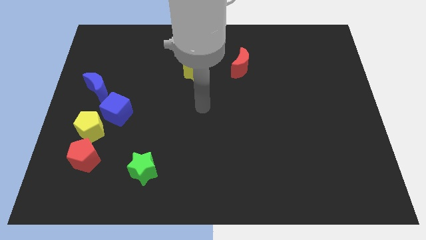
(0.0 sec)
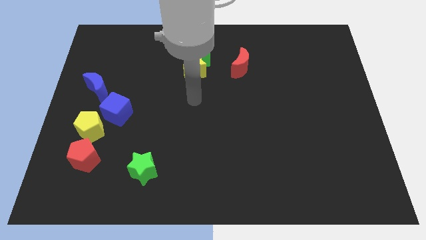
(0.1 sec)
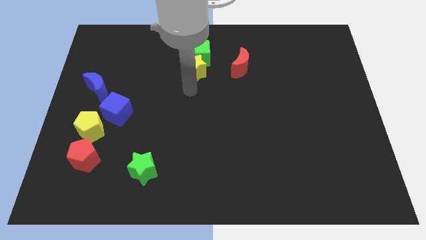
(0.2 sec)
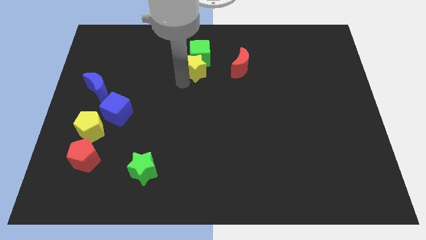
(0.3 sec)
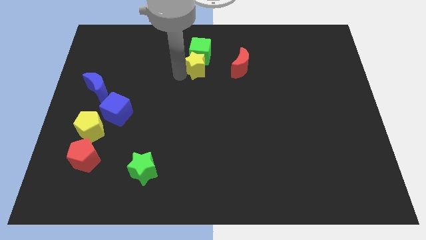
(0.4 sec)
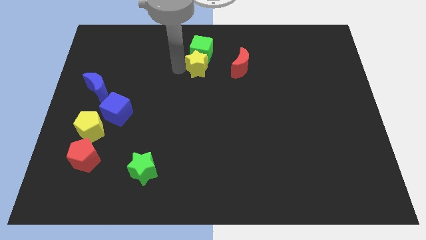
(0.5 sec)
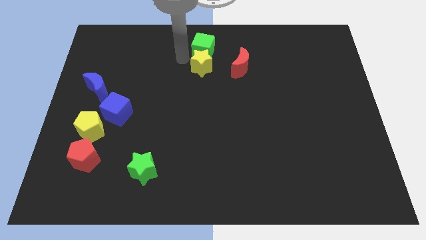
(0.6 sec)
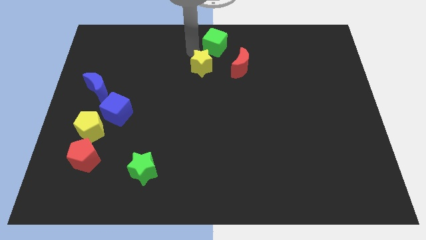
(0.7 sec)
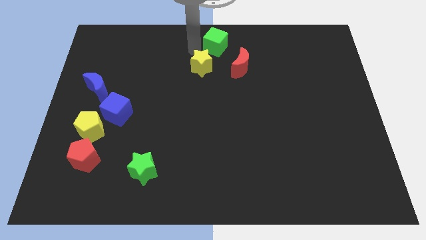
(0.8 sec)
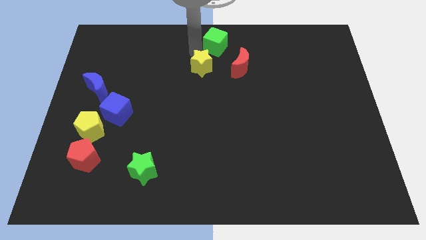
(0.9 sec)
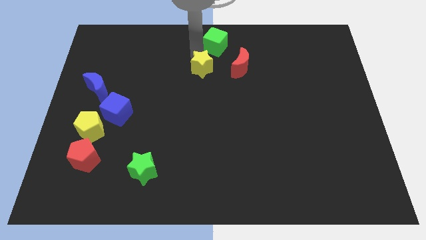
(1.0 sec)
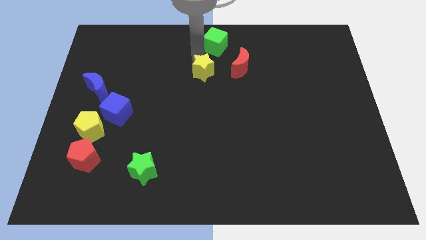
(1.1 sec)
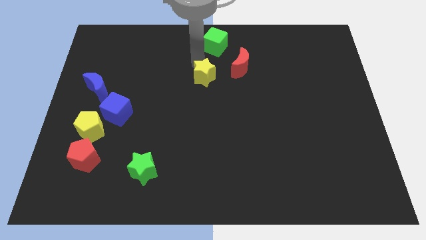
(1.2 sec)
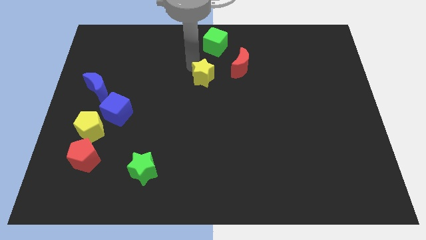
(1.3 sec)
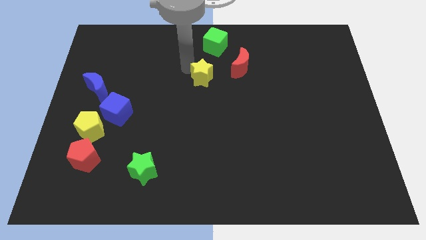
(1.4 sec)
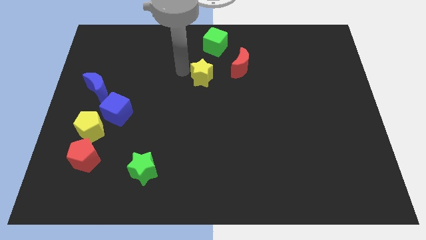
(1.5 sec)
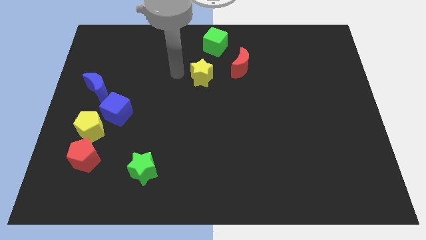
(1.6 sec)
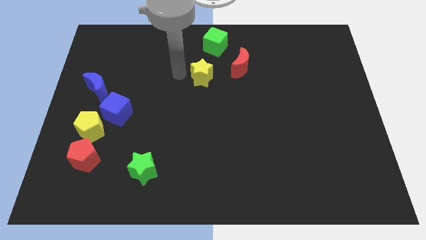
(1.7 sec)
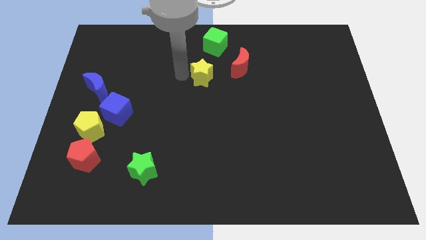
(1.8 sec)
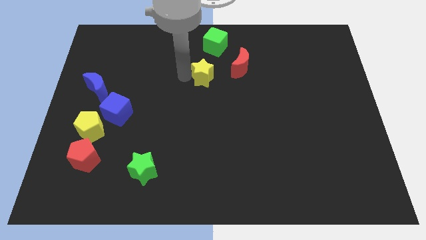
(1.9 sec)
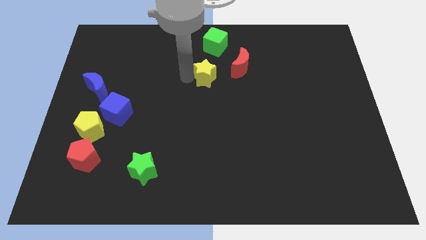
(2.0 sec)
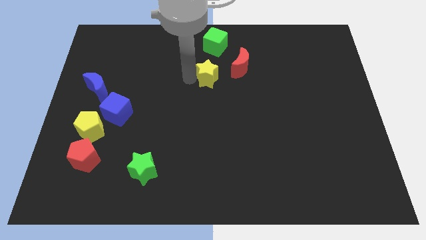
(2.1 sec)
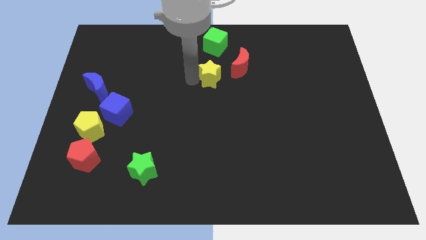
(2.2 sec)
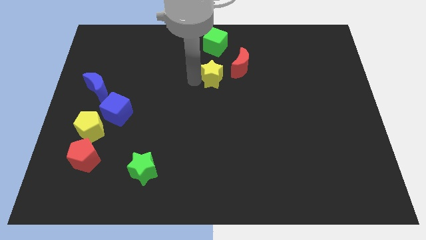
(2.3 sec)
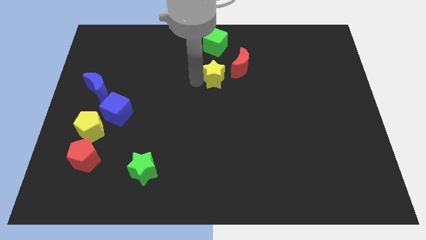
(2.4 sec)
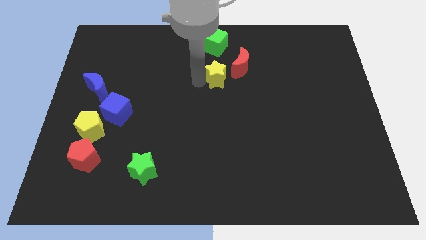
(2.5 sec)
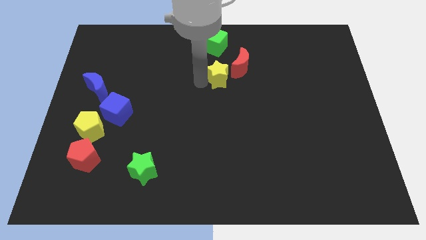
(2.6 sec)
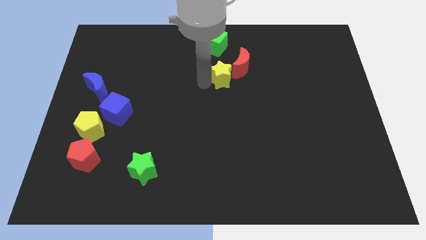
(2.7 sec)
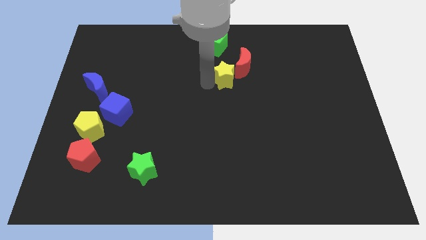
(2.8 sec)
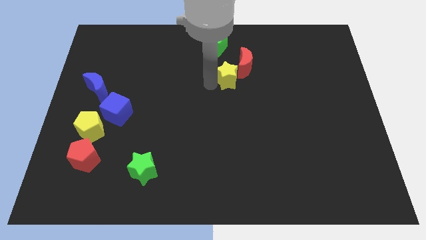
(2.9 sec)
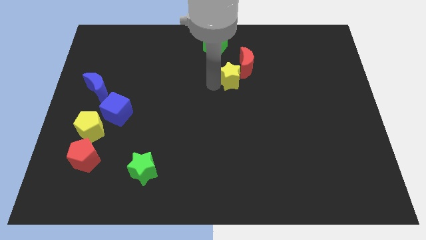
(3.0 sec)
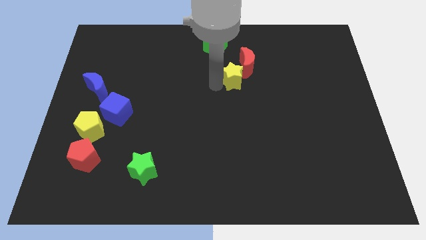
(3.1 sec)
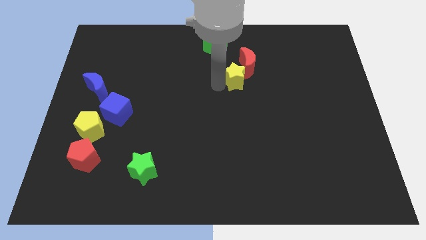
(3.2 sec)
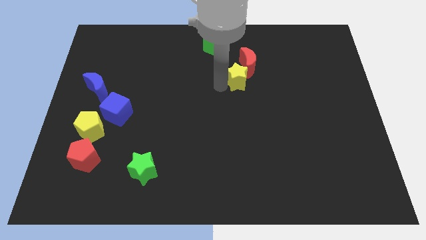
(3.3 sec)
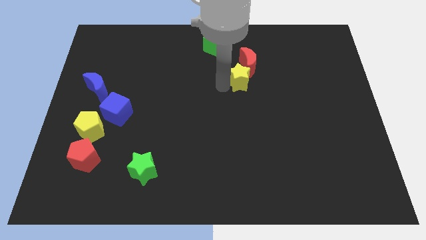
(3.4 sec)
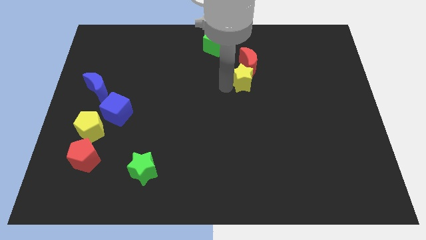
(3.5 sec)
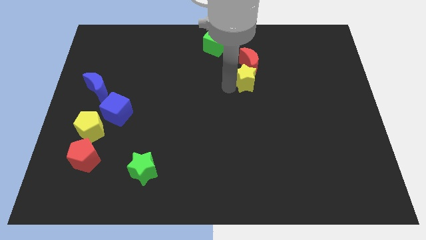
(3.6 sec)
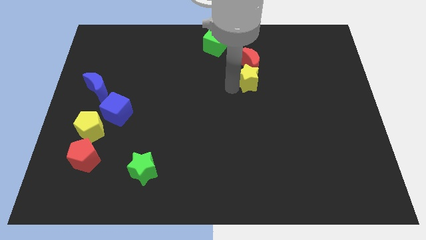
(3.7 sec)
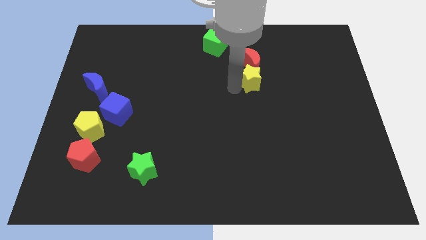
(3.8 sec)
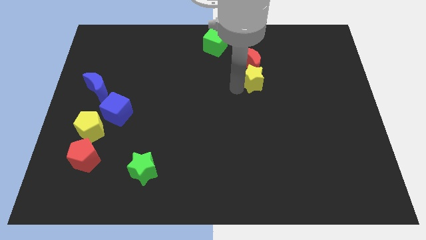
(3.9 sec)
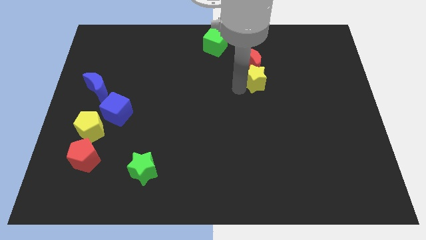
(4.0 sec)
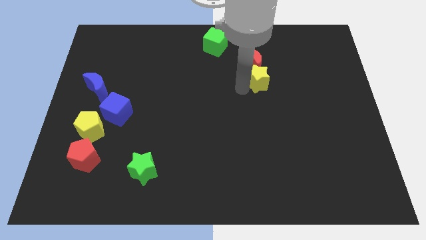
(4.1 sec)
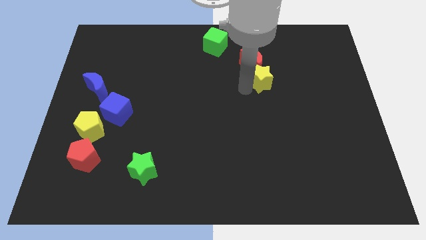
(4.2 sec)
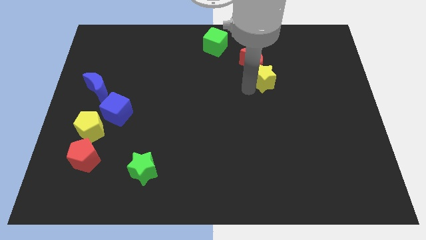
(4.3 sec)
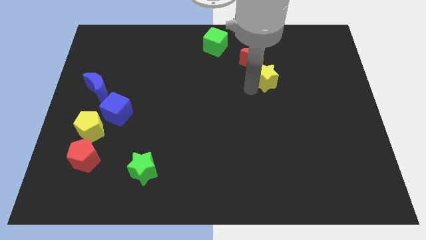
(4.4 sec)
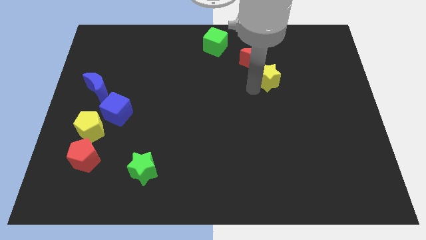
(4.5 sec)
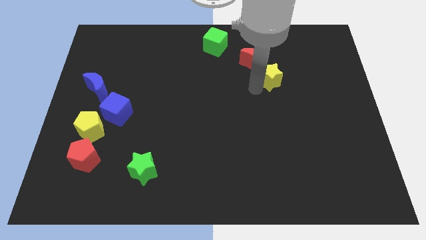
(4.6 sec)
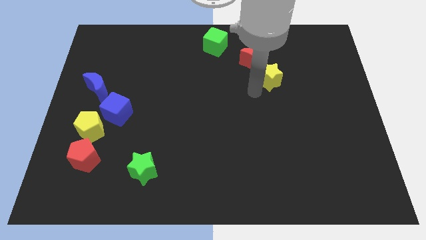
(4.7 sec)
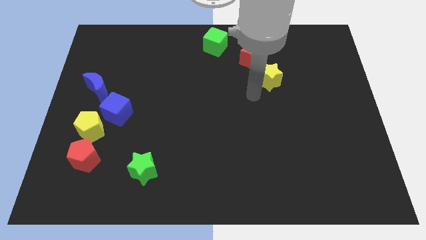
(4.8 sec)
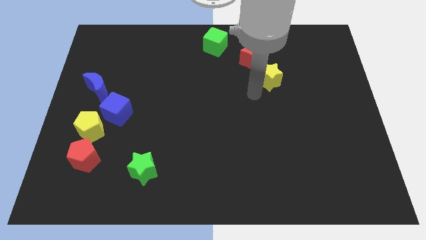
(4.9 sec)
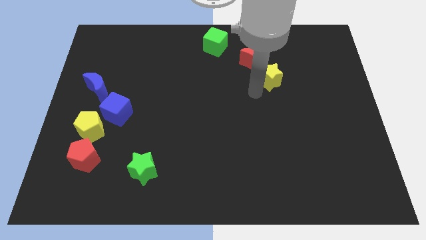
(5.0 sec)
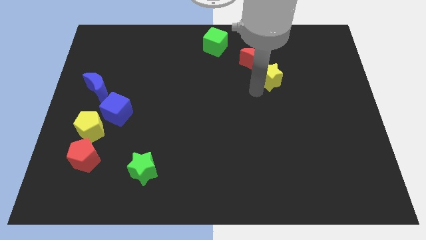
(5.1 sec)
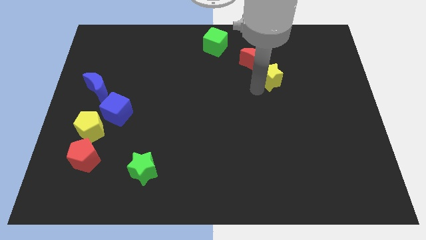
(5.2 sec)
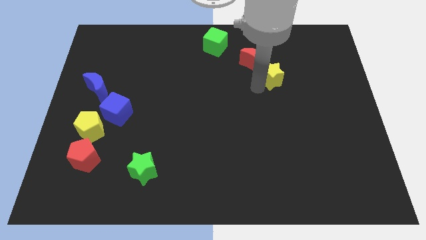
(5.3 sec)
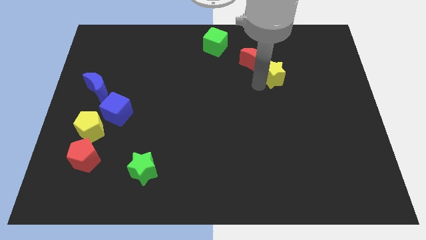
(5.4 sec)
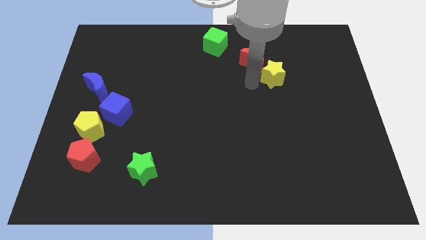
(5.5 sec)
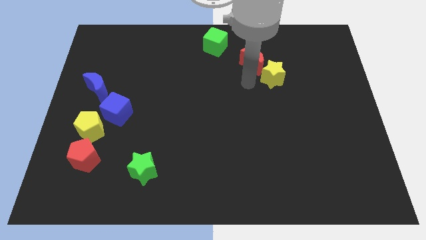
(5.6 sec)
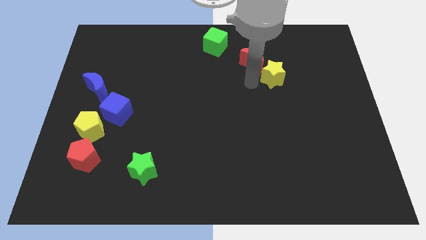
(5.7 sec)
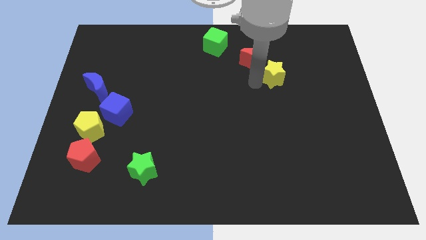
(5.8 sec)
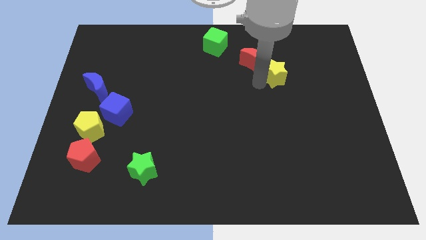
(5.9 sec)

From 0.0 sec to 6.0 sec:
push the yellow star to the right

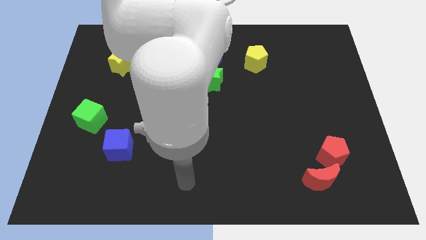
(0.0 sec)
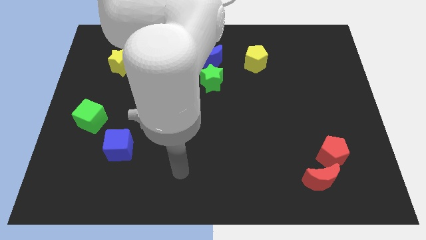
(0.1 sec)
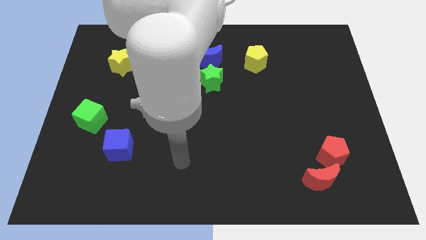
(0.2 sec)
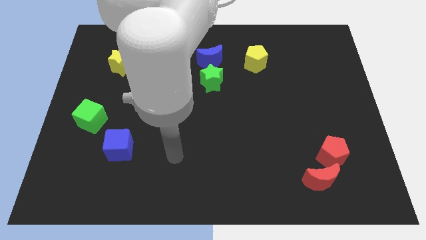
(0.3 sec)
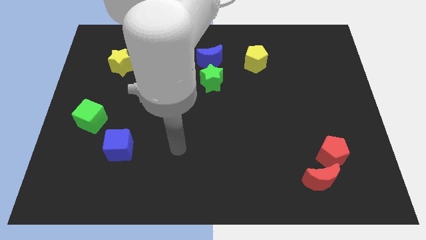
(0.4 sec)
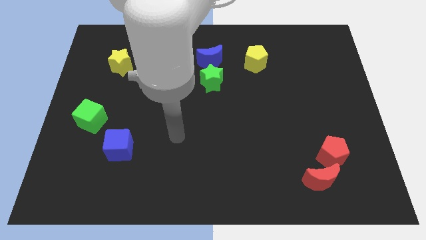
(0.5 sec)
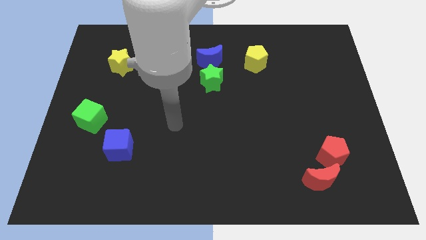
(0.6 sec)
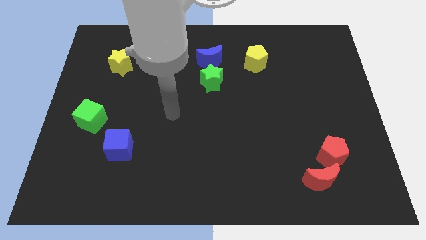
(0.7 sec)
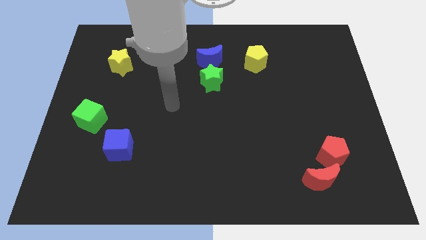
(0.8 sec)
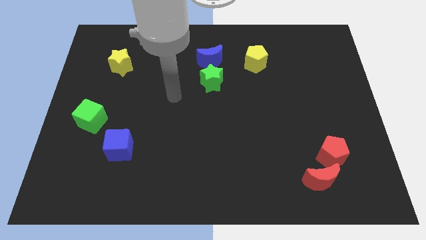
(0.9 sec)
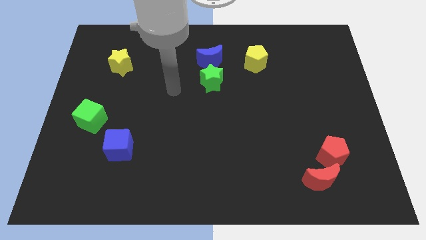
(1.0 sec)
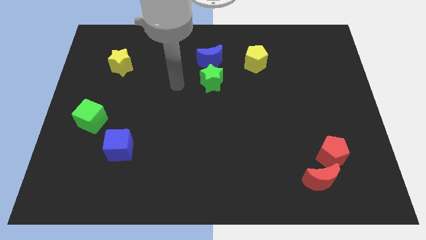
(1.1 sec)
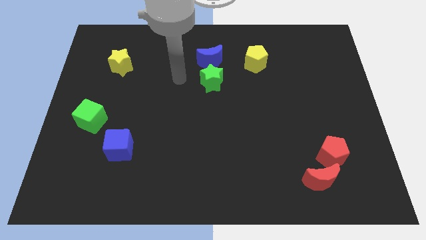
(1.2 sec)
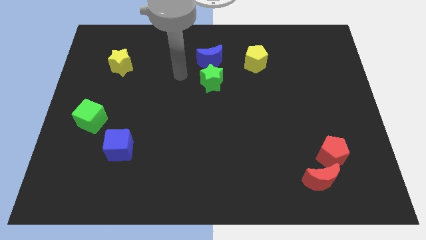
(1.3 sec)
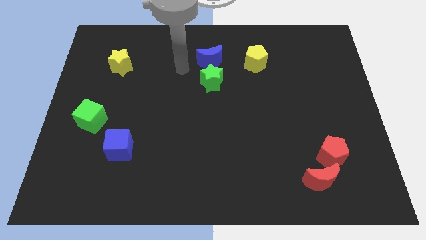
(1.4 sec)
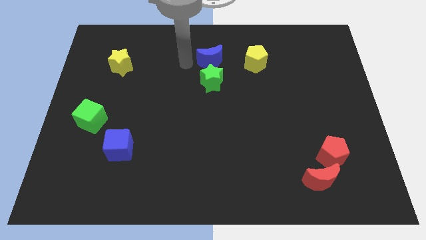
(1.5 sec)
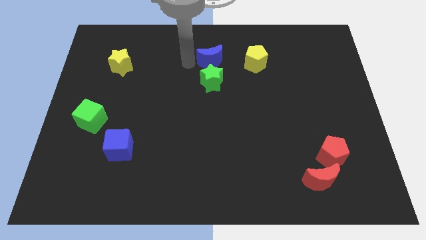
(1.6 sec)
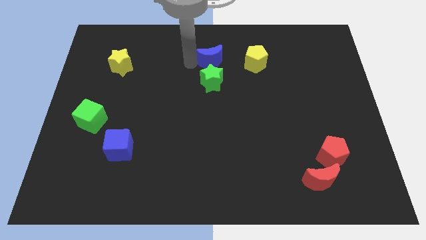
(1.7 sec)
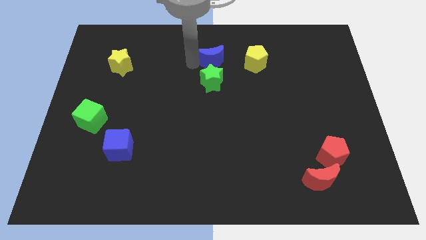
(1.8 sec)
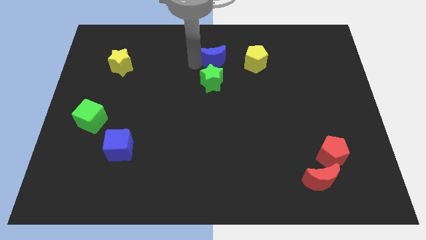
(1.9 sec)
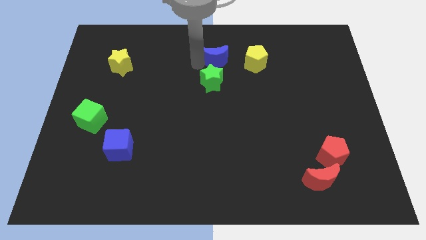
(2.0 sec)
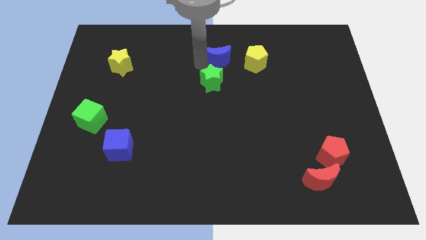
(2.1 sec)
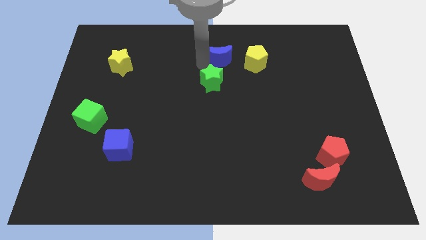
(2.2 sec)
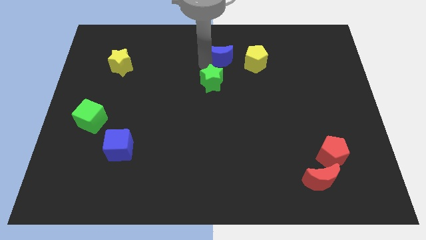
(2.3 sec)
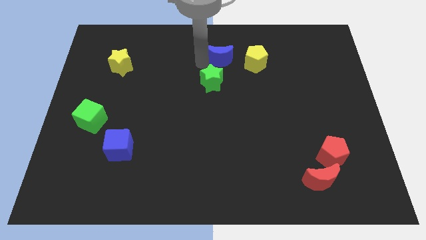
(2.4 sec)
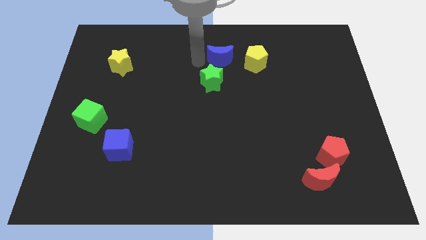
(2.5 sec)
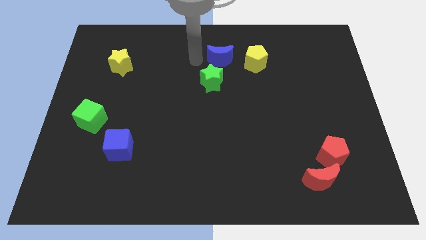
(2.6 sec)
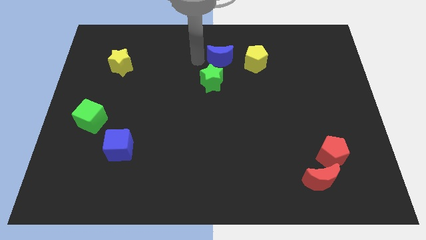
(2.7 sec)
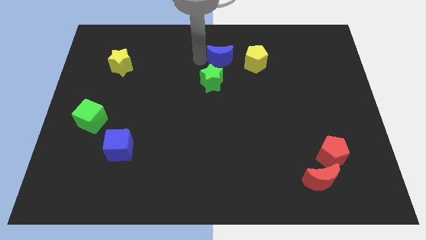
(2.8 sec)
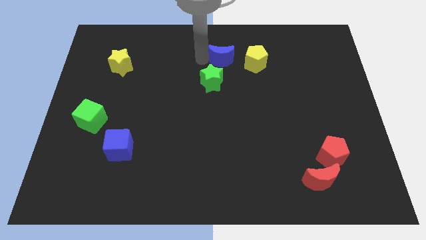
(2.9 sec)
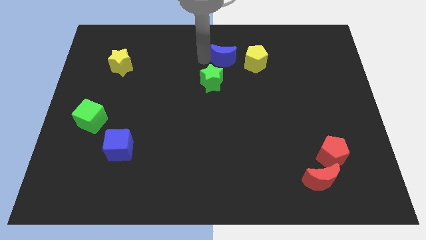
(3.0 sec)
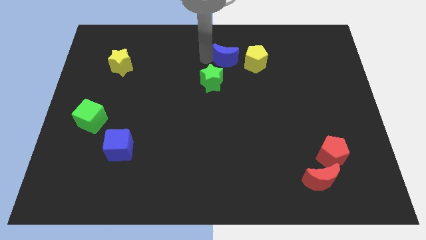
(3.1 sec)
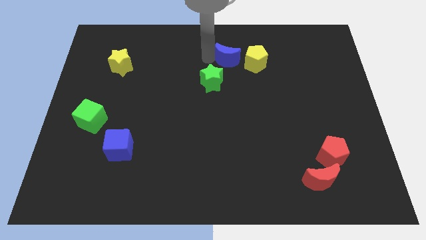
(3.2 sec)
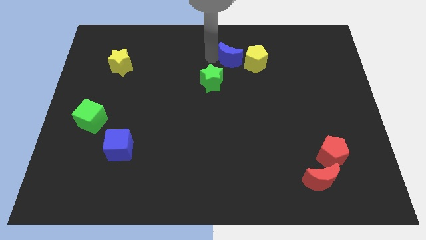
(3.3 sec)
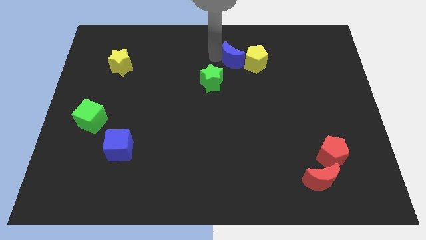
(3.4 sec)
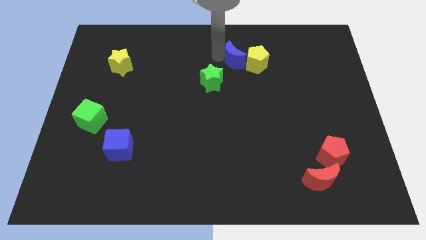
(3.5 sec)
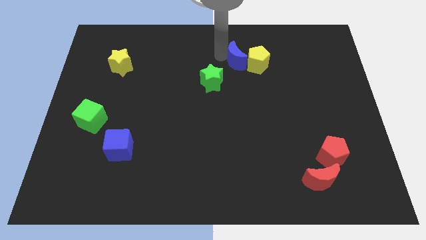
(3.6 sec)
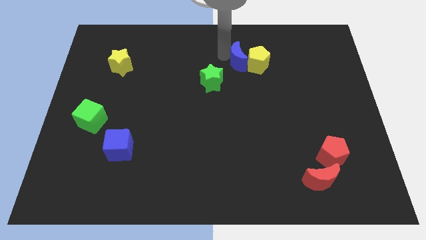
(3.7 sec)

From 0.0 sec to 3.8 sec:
slightly slide the blue moon right
